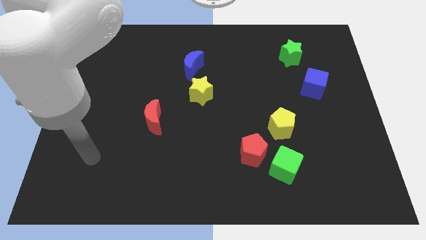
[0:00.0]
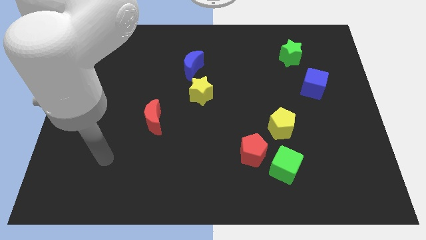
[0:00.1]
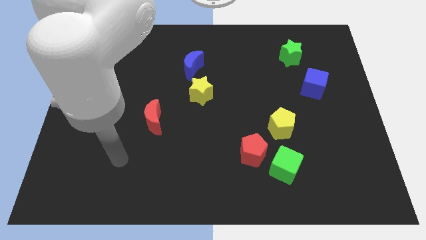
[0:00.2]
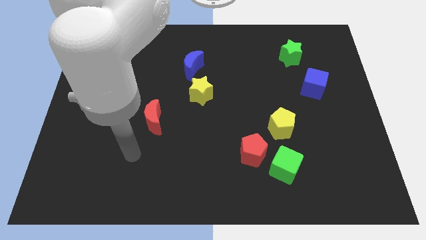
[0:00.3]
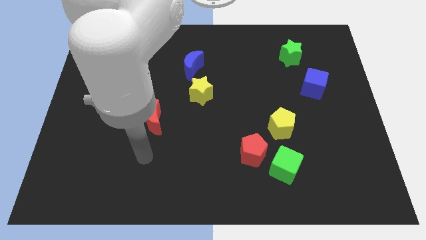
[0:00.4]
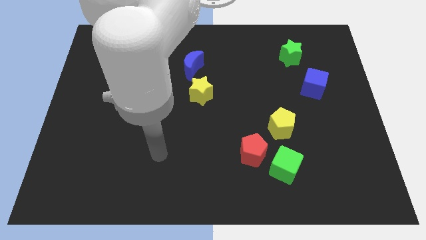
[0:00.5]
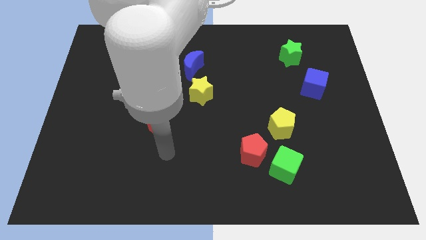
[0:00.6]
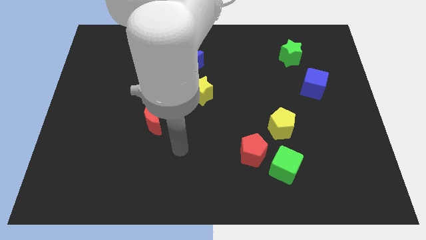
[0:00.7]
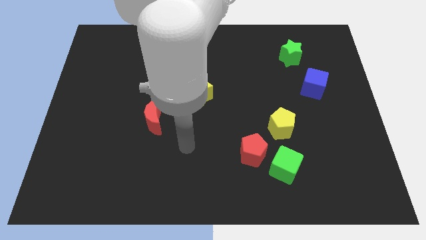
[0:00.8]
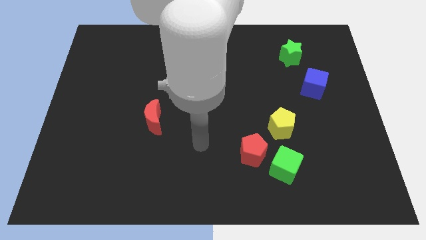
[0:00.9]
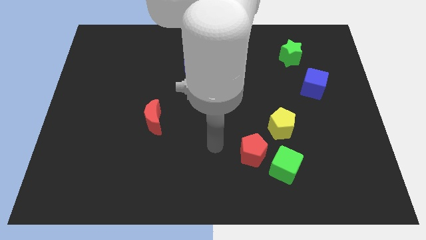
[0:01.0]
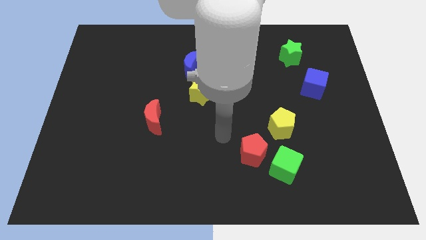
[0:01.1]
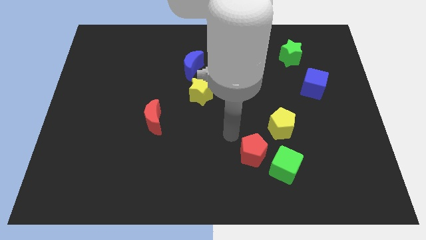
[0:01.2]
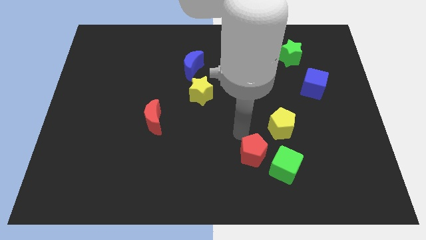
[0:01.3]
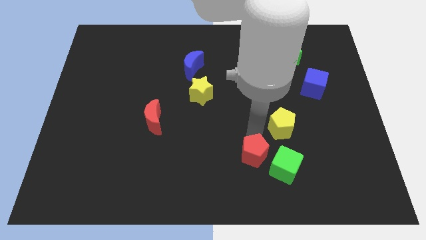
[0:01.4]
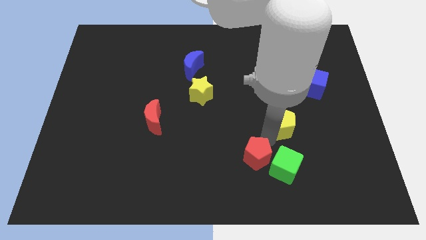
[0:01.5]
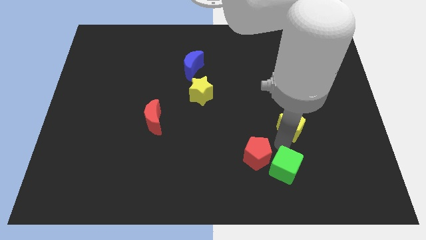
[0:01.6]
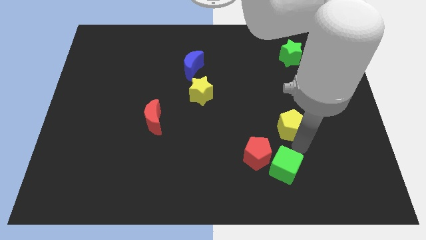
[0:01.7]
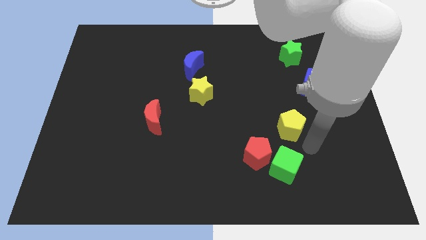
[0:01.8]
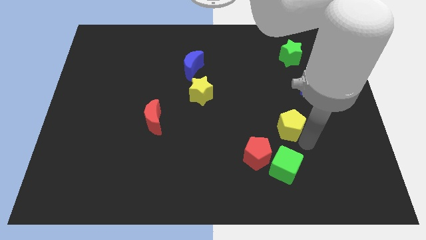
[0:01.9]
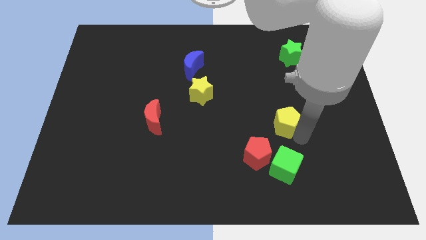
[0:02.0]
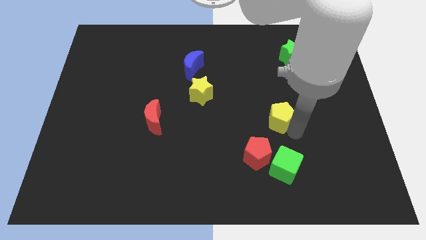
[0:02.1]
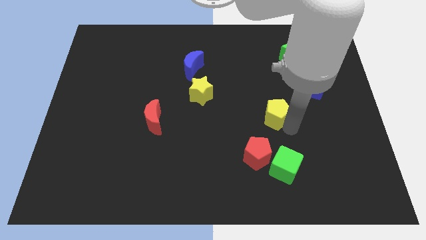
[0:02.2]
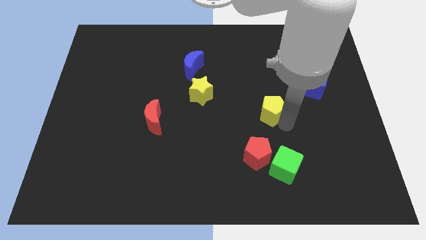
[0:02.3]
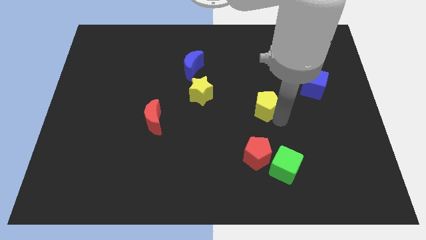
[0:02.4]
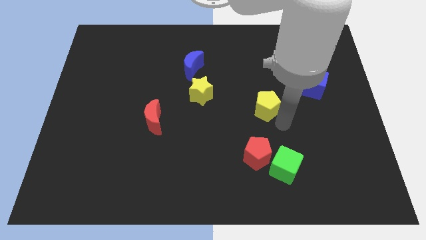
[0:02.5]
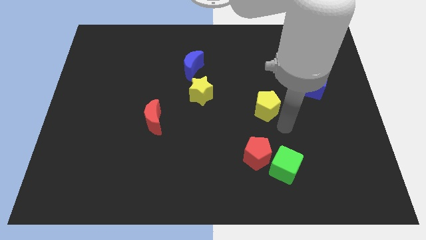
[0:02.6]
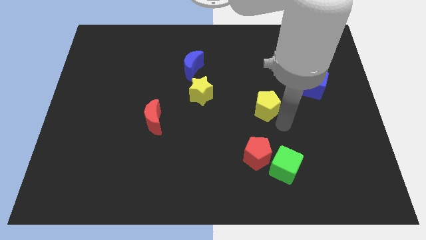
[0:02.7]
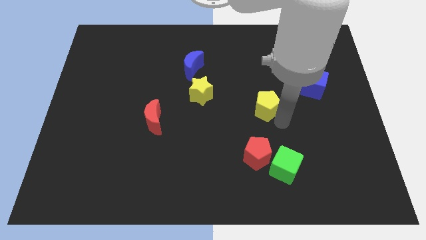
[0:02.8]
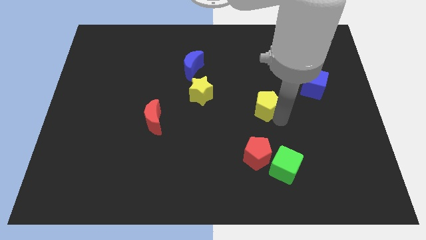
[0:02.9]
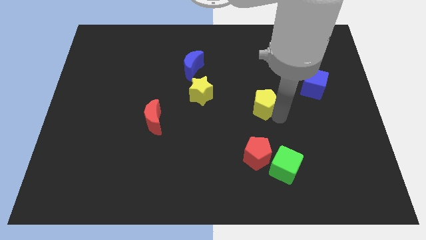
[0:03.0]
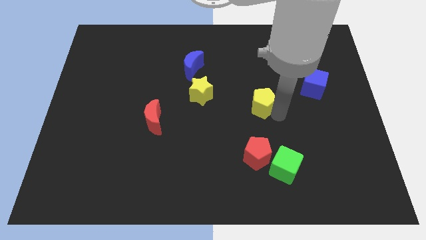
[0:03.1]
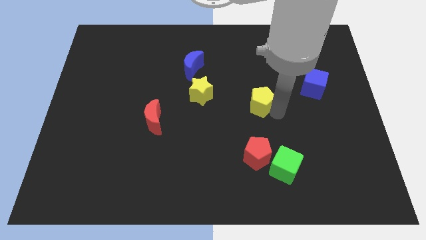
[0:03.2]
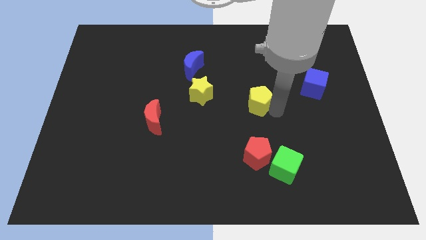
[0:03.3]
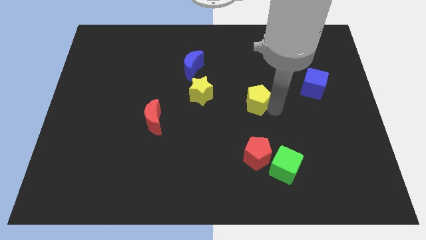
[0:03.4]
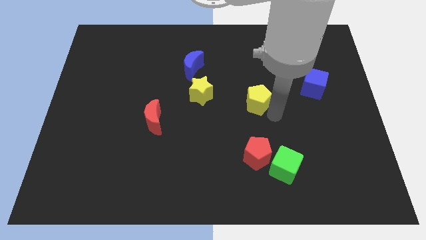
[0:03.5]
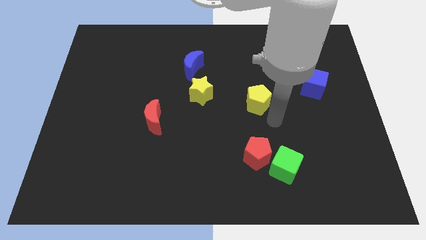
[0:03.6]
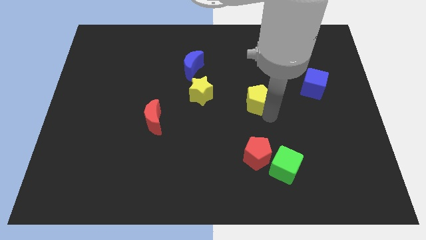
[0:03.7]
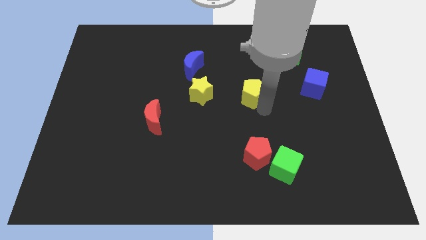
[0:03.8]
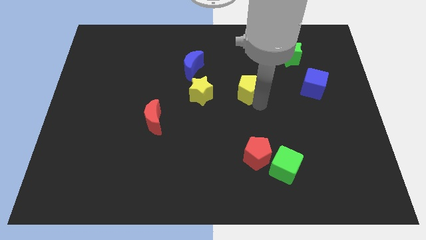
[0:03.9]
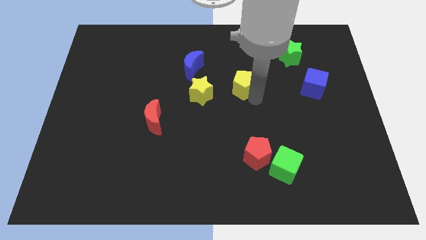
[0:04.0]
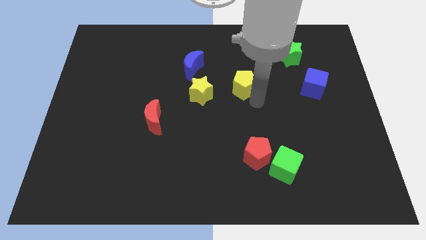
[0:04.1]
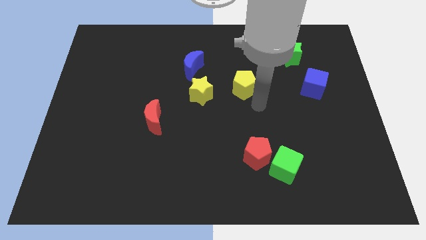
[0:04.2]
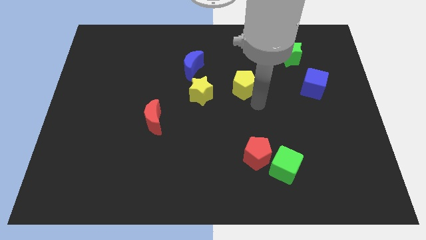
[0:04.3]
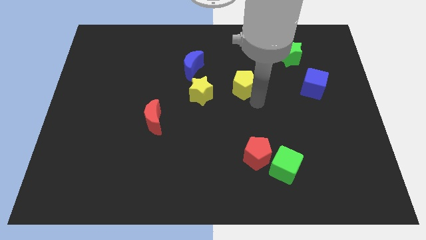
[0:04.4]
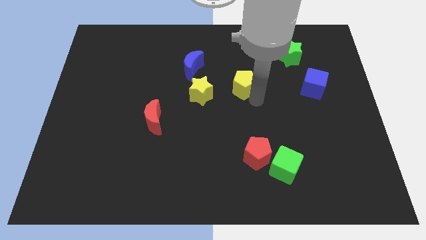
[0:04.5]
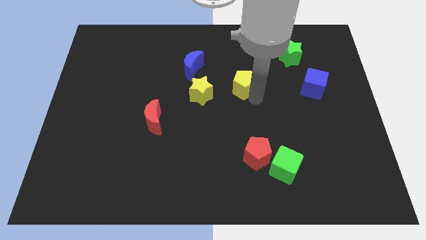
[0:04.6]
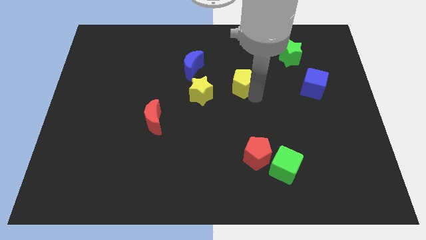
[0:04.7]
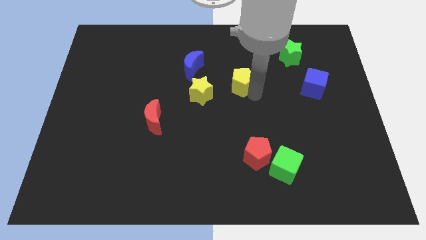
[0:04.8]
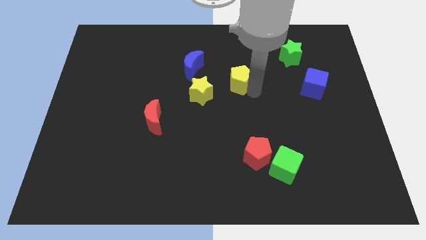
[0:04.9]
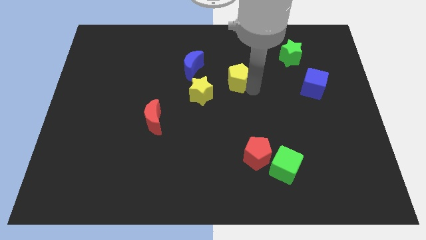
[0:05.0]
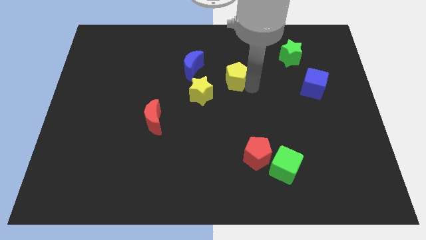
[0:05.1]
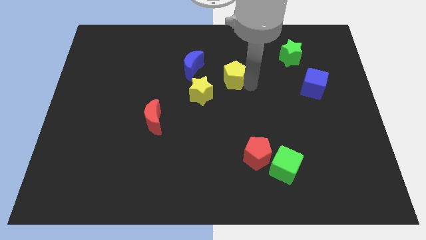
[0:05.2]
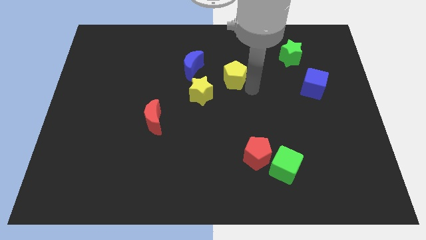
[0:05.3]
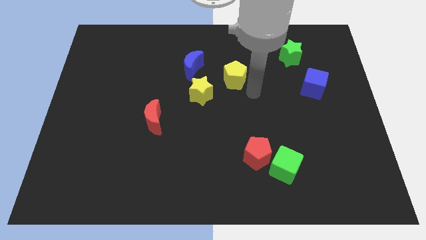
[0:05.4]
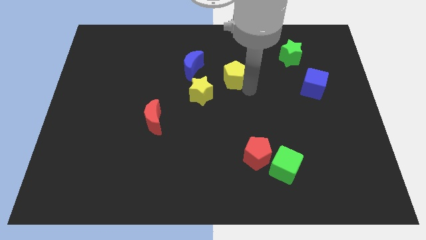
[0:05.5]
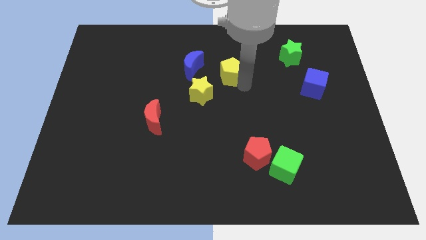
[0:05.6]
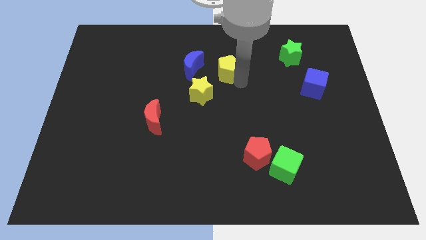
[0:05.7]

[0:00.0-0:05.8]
slide the yellow pentagon up and then left

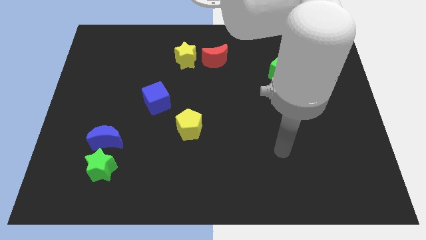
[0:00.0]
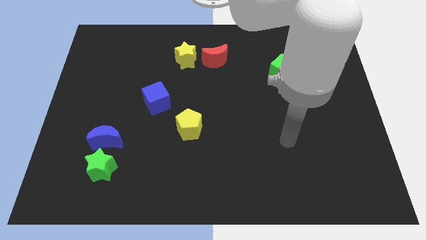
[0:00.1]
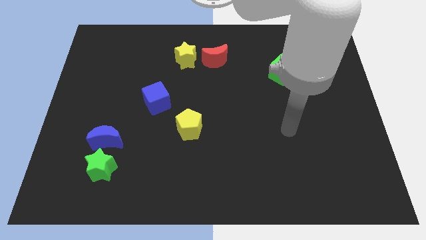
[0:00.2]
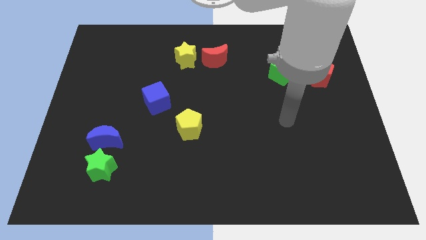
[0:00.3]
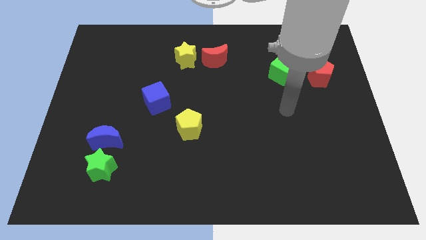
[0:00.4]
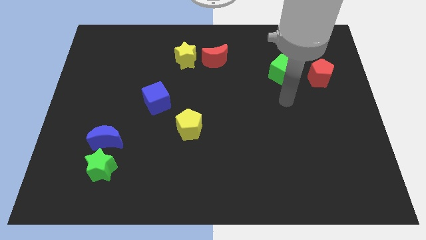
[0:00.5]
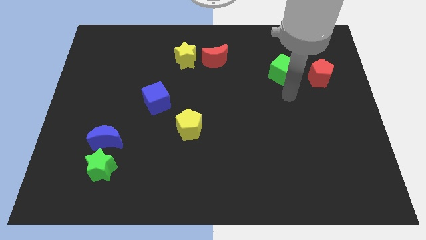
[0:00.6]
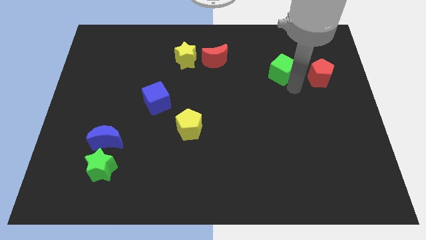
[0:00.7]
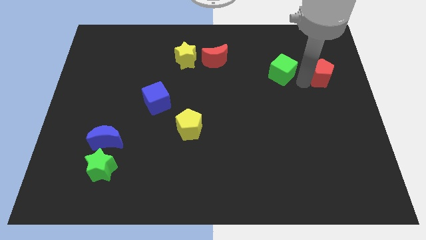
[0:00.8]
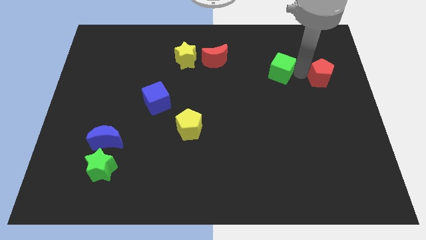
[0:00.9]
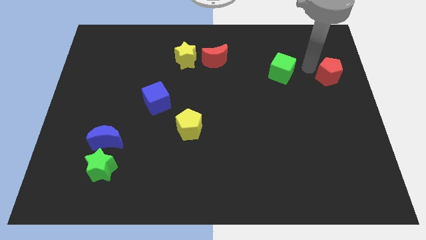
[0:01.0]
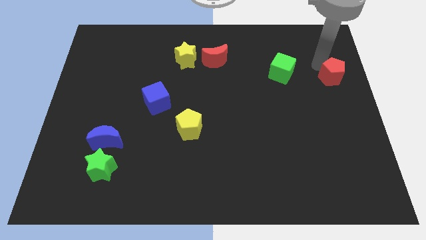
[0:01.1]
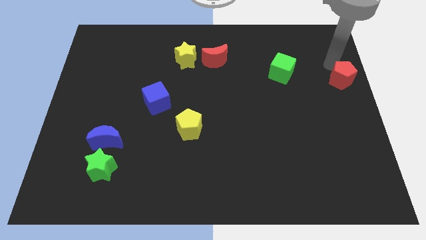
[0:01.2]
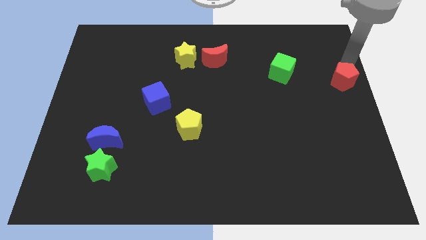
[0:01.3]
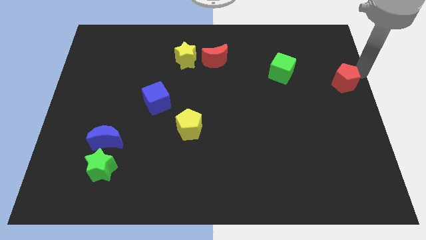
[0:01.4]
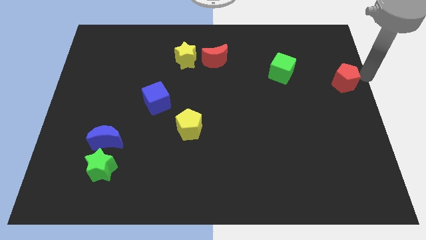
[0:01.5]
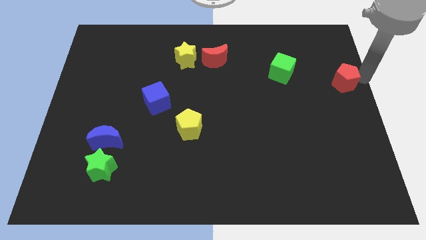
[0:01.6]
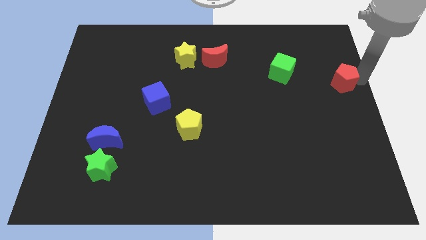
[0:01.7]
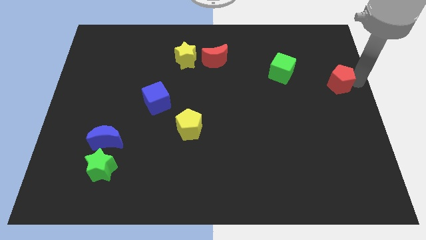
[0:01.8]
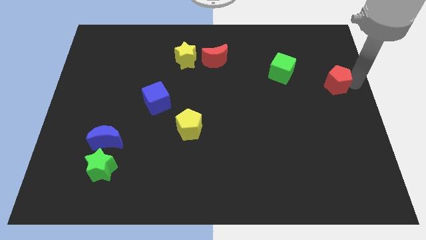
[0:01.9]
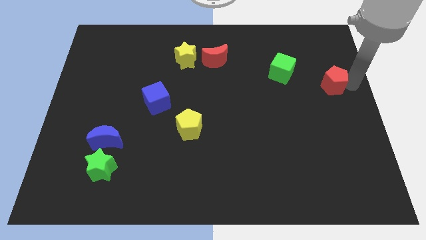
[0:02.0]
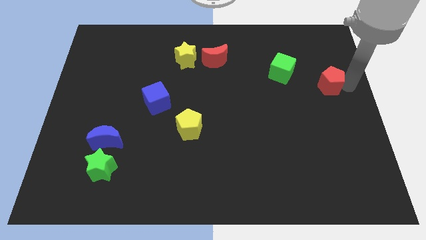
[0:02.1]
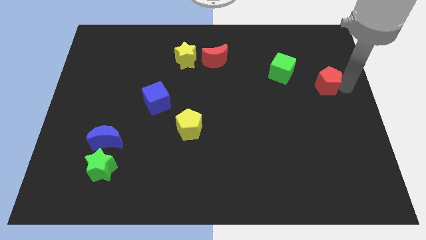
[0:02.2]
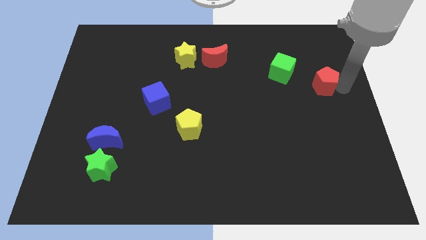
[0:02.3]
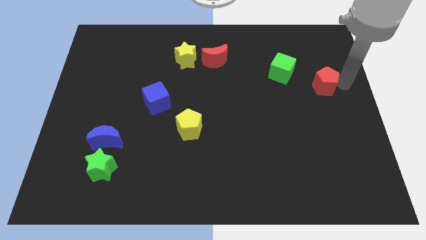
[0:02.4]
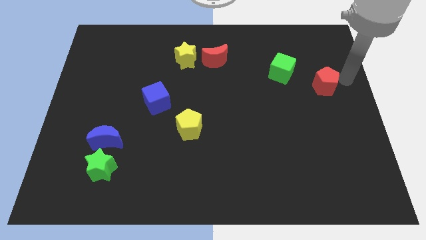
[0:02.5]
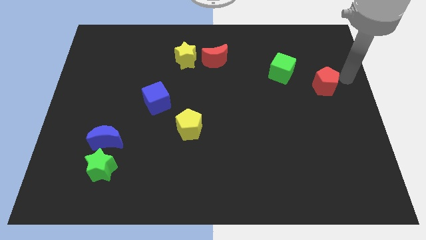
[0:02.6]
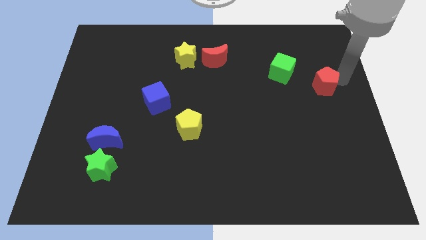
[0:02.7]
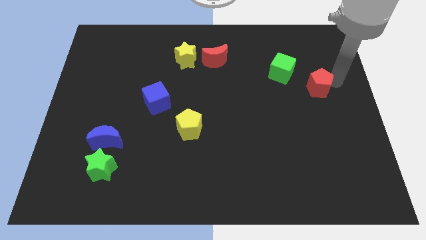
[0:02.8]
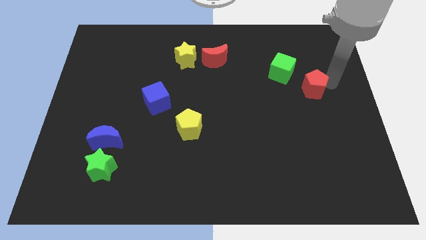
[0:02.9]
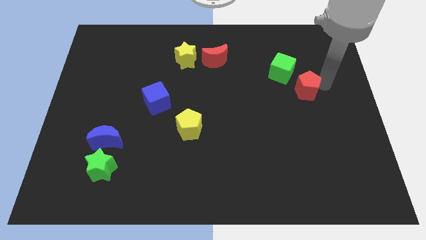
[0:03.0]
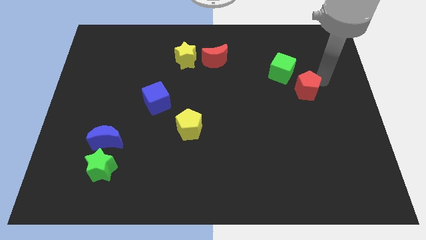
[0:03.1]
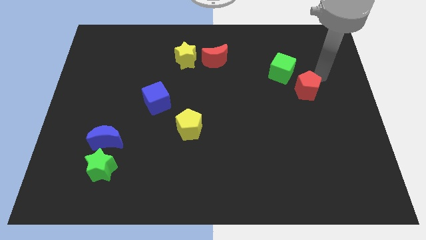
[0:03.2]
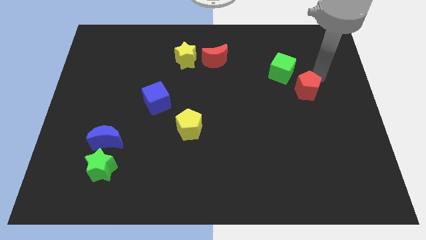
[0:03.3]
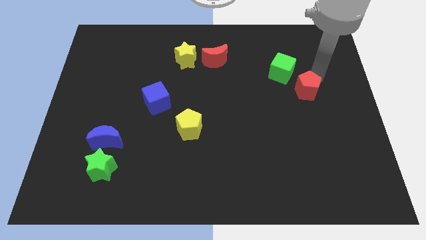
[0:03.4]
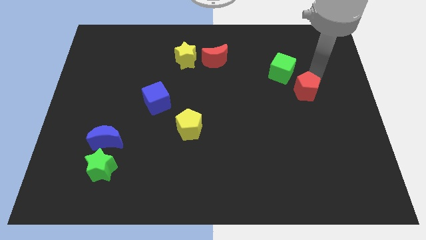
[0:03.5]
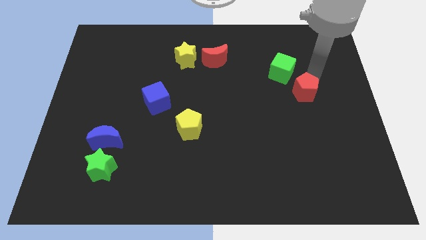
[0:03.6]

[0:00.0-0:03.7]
slightly move the red pentagon downwards and then left
